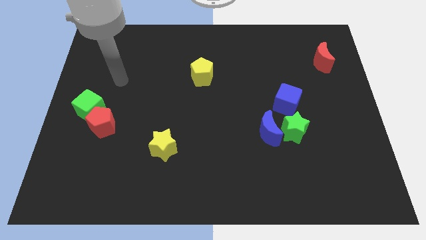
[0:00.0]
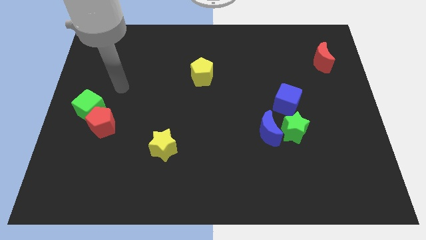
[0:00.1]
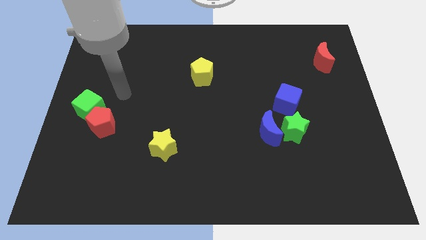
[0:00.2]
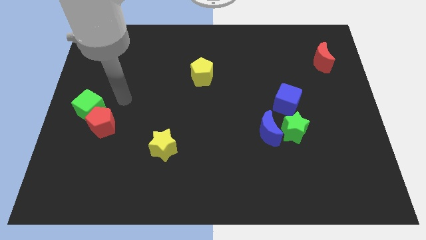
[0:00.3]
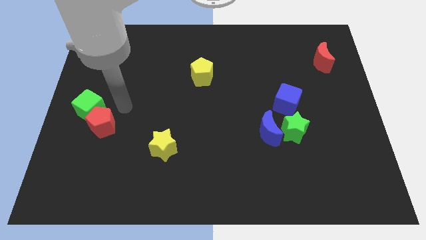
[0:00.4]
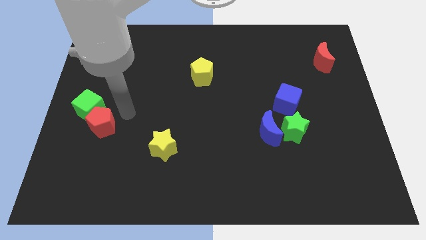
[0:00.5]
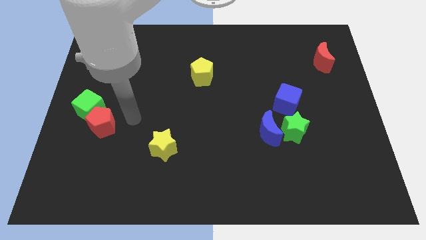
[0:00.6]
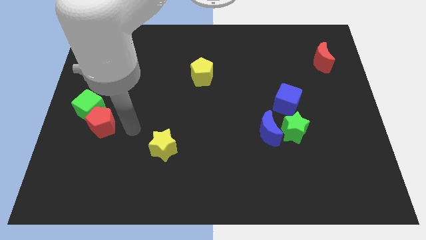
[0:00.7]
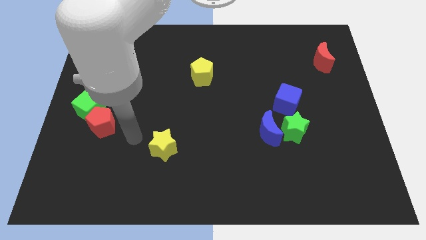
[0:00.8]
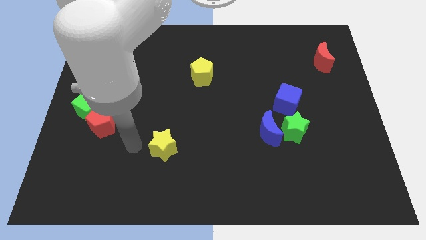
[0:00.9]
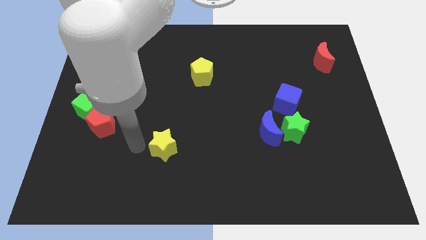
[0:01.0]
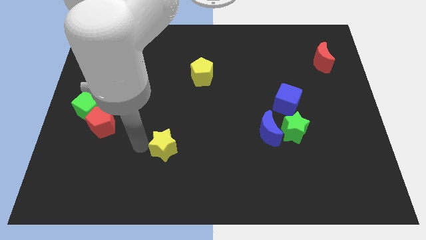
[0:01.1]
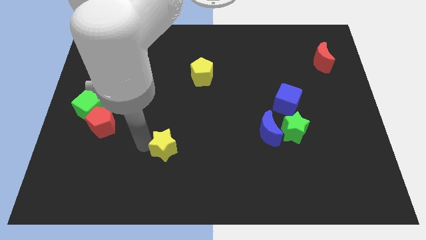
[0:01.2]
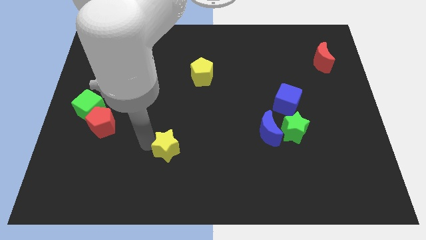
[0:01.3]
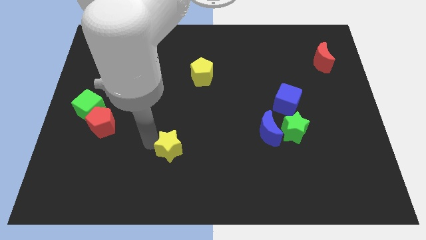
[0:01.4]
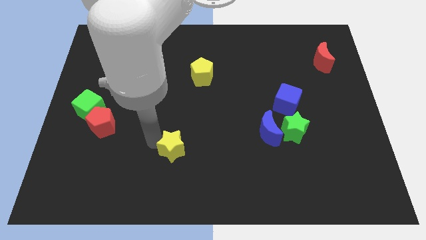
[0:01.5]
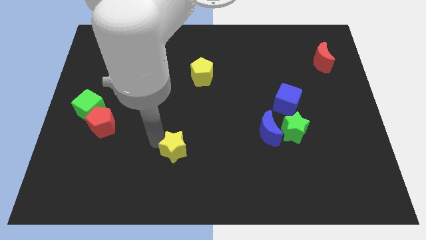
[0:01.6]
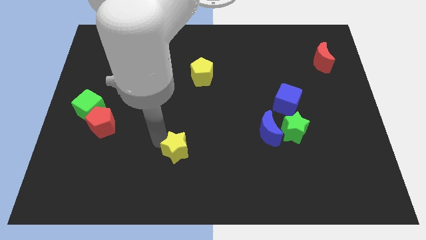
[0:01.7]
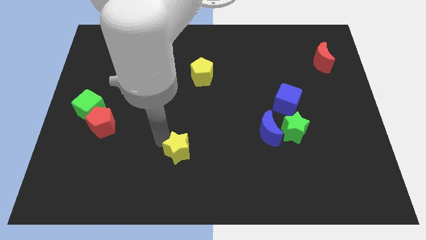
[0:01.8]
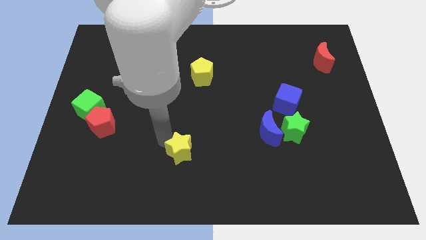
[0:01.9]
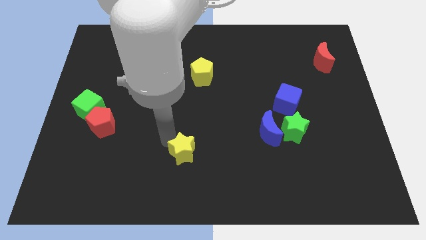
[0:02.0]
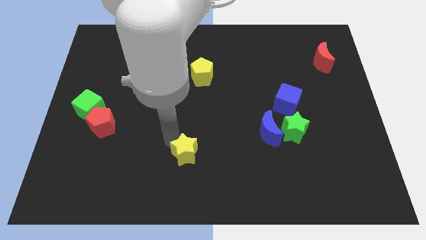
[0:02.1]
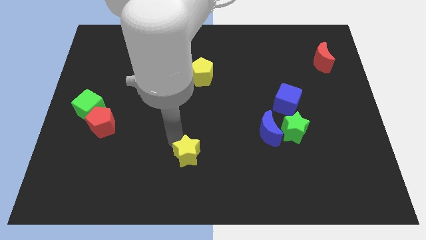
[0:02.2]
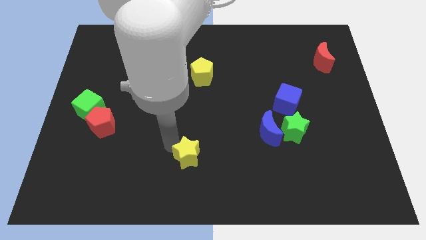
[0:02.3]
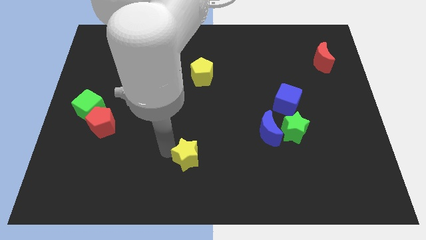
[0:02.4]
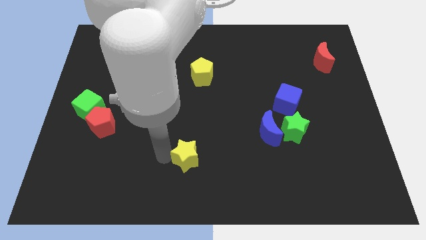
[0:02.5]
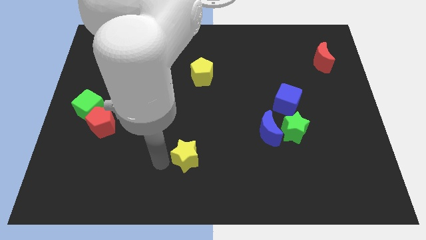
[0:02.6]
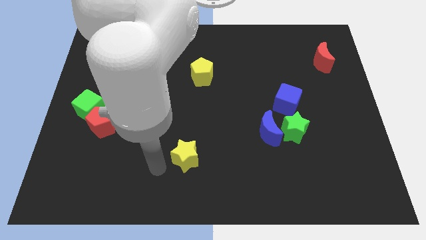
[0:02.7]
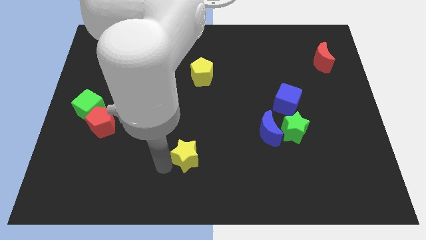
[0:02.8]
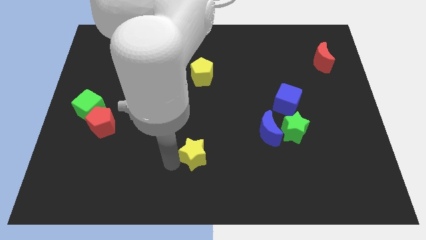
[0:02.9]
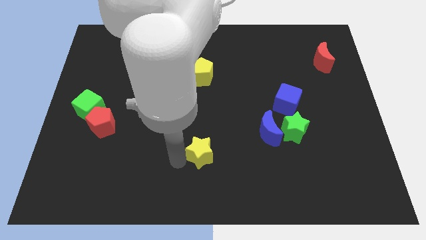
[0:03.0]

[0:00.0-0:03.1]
push the yellow star slightly right

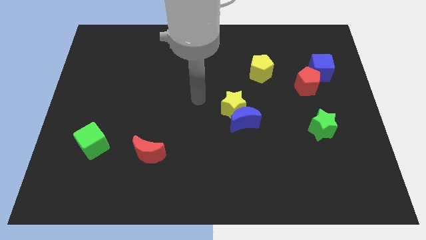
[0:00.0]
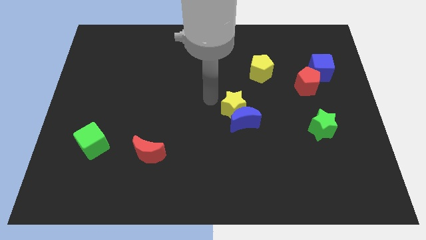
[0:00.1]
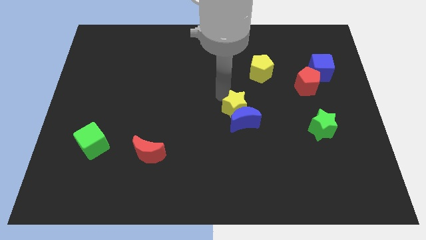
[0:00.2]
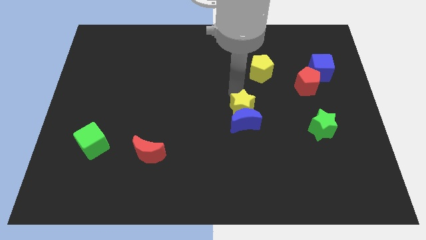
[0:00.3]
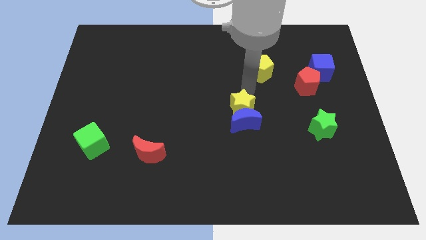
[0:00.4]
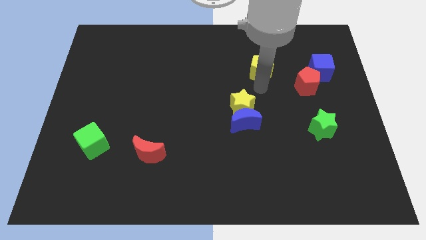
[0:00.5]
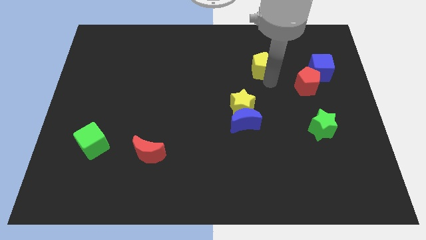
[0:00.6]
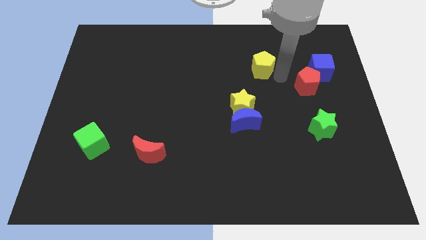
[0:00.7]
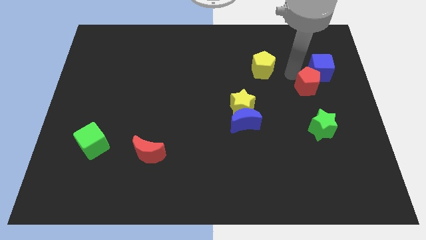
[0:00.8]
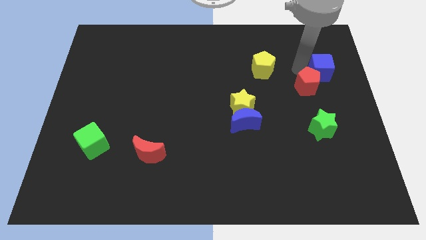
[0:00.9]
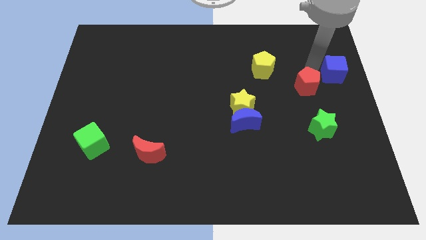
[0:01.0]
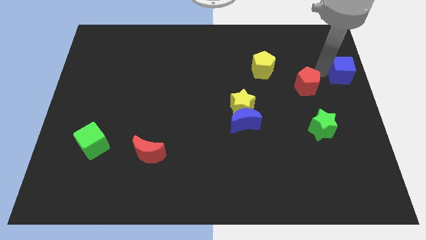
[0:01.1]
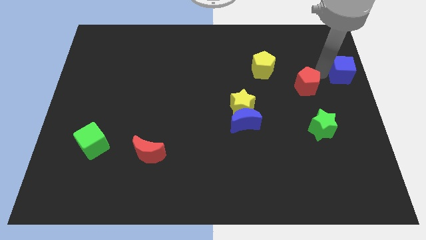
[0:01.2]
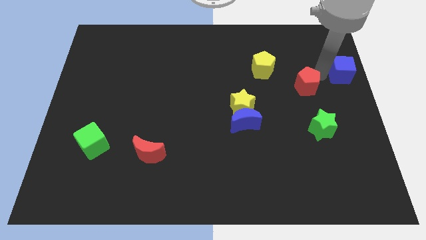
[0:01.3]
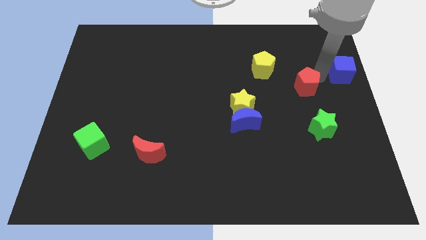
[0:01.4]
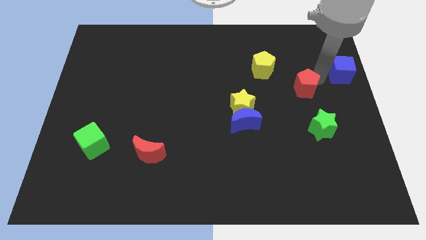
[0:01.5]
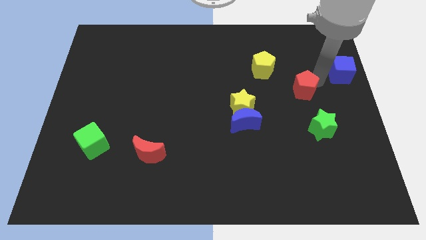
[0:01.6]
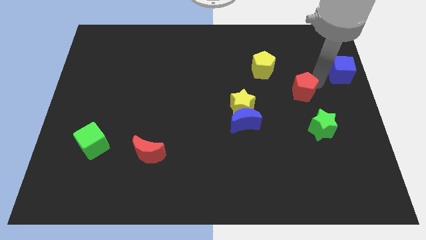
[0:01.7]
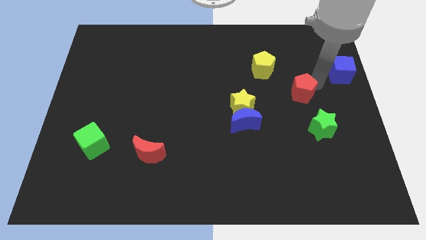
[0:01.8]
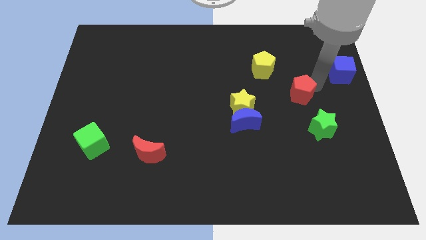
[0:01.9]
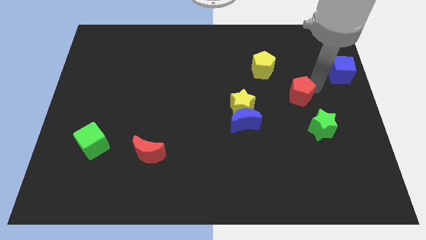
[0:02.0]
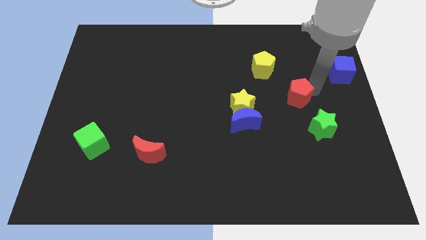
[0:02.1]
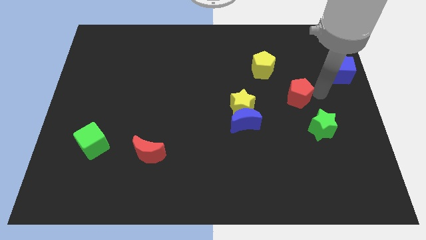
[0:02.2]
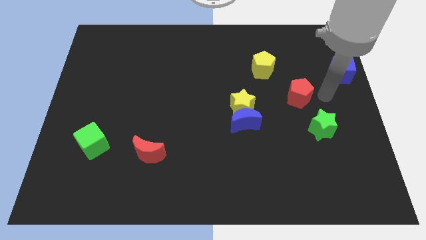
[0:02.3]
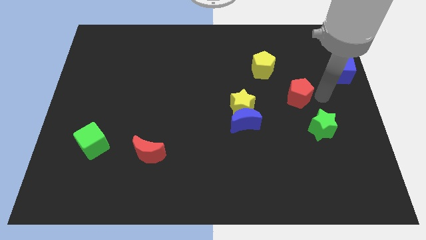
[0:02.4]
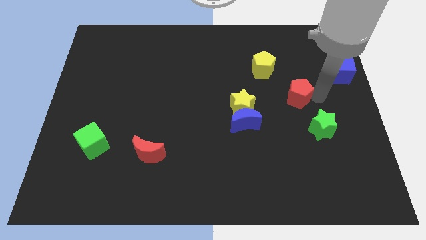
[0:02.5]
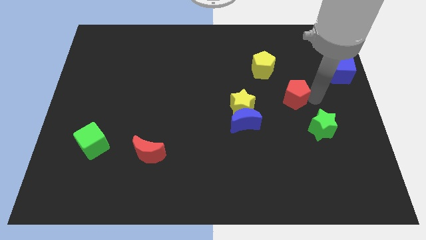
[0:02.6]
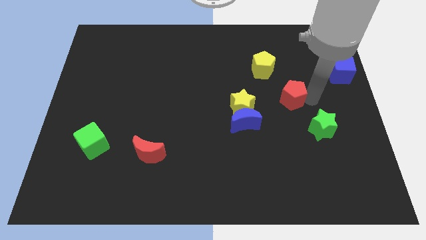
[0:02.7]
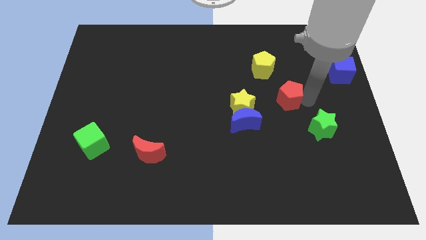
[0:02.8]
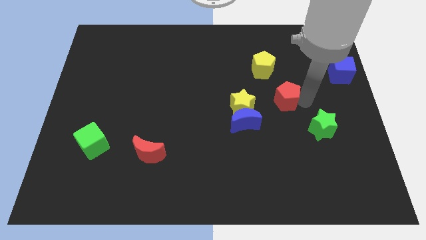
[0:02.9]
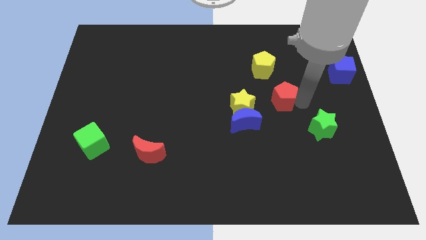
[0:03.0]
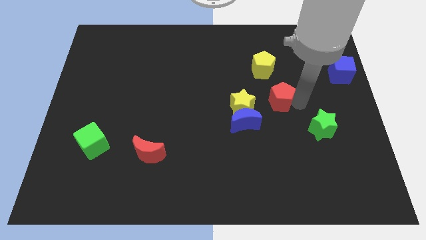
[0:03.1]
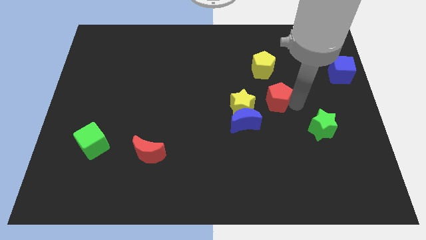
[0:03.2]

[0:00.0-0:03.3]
slightly push the red pentagon left

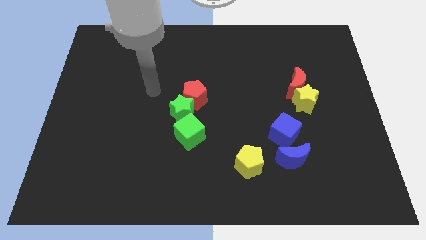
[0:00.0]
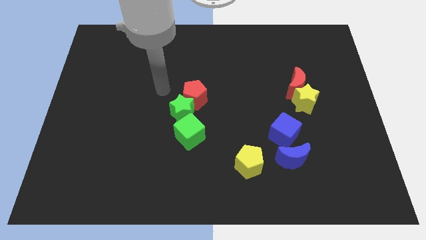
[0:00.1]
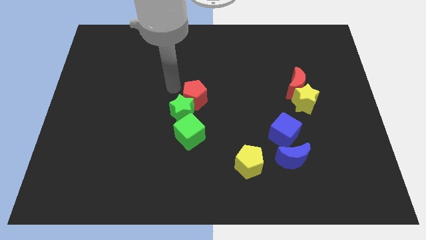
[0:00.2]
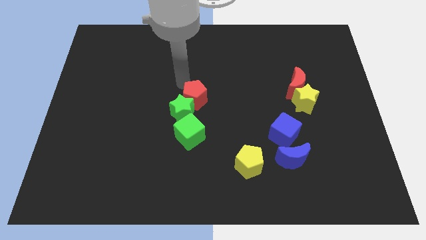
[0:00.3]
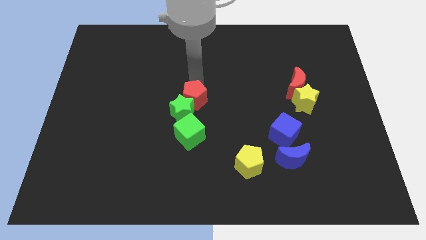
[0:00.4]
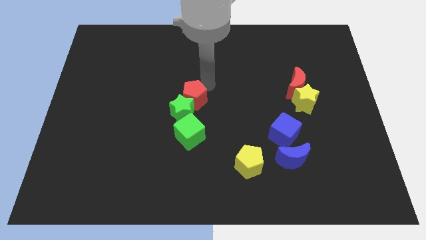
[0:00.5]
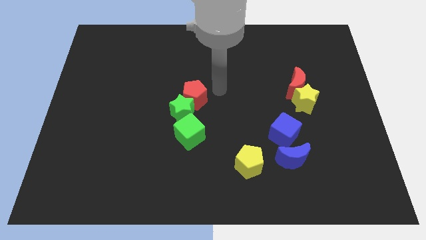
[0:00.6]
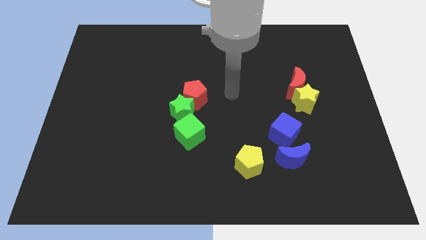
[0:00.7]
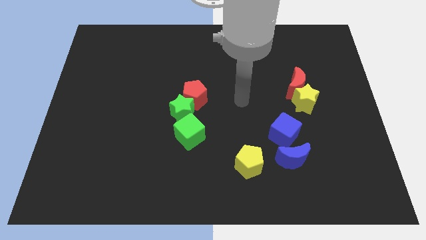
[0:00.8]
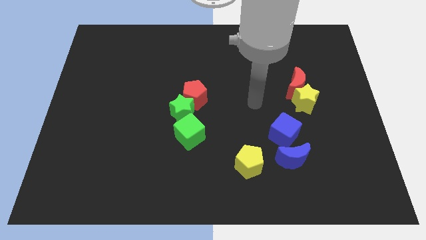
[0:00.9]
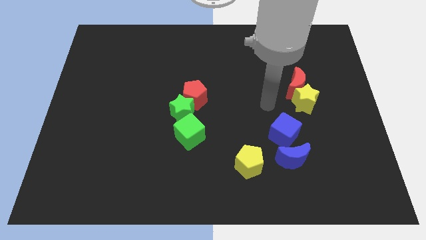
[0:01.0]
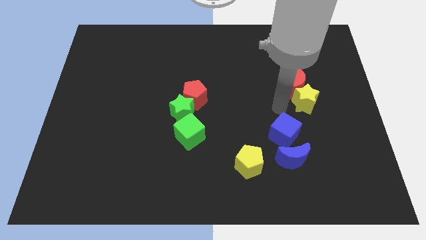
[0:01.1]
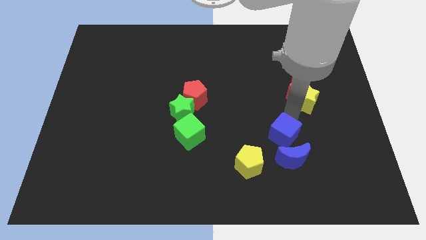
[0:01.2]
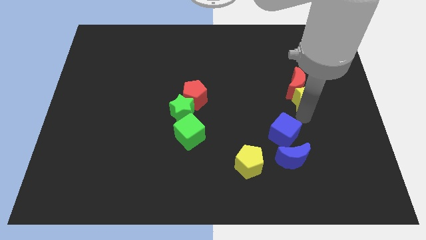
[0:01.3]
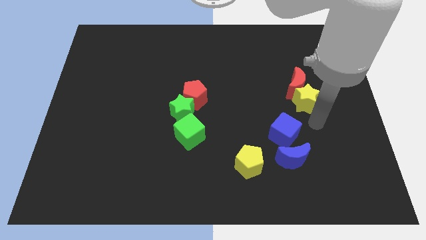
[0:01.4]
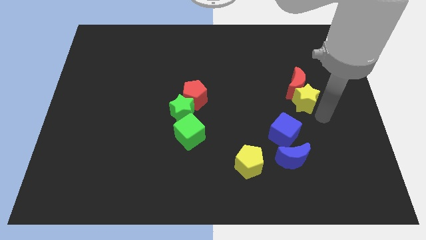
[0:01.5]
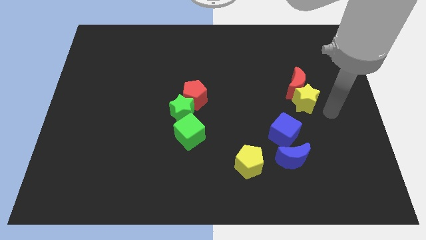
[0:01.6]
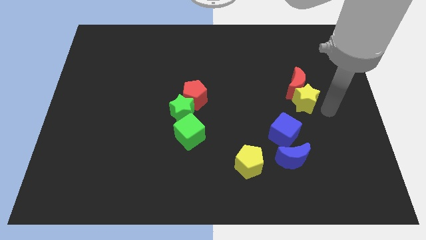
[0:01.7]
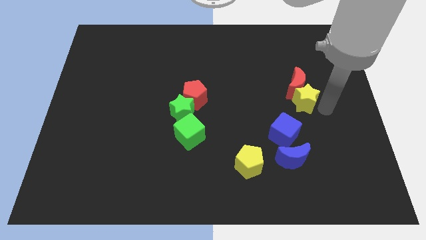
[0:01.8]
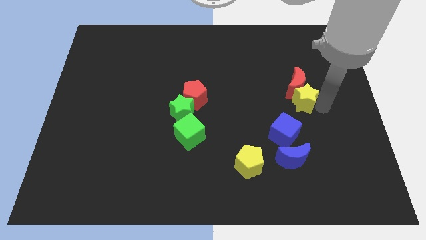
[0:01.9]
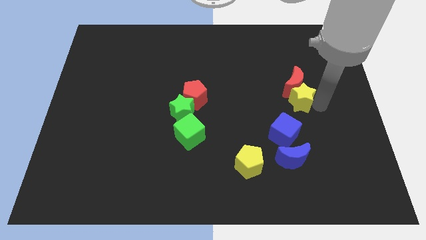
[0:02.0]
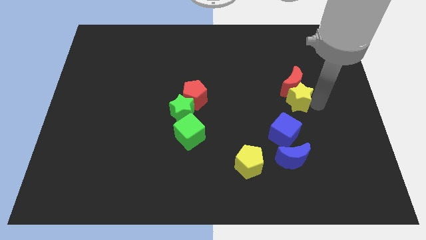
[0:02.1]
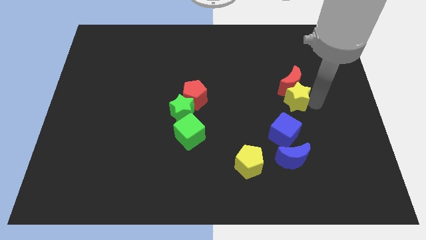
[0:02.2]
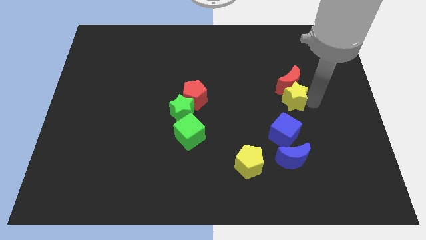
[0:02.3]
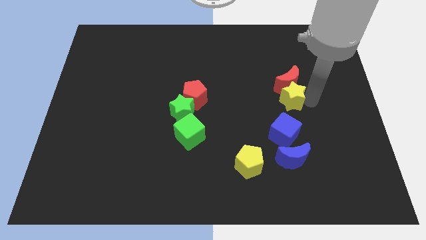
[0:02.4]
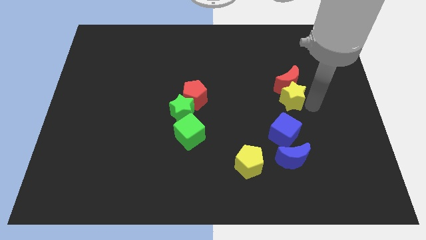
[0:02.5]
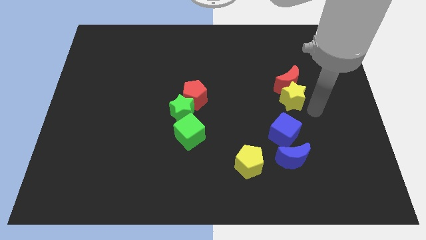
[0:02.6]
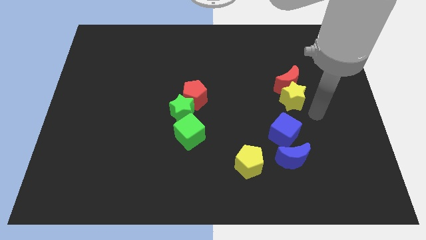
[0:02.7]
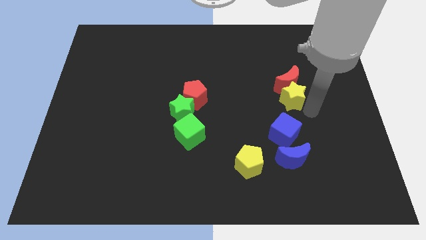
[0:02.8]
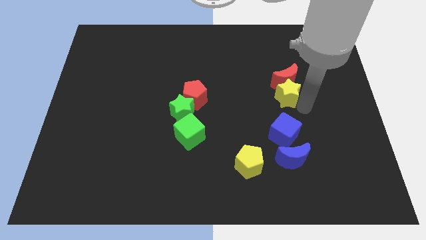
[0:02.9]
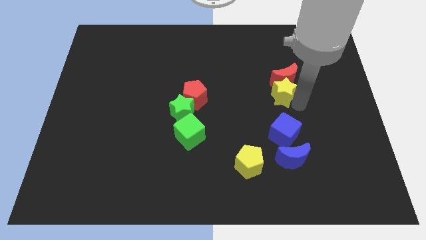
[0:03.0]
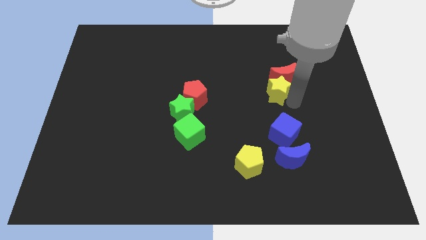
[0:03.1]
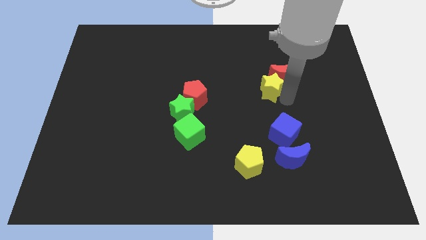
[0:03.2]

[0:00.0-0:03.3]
slide the yellow star a little diagonally up and to the left
